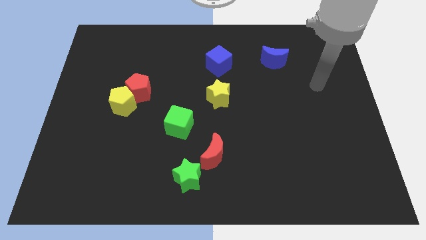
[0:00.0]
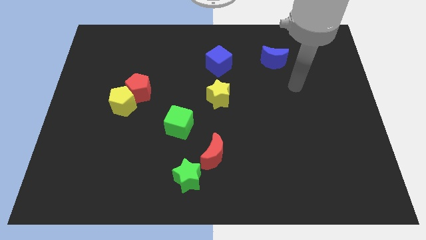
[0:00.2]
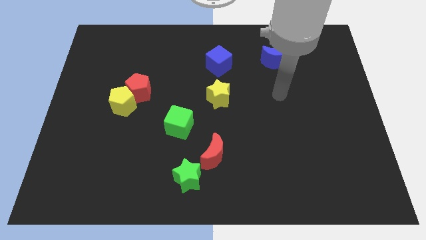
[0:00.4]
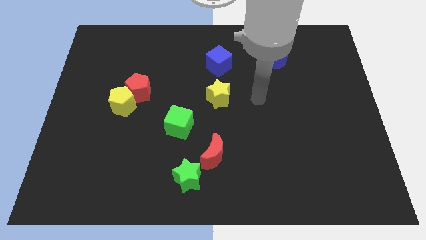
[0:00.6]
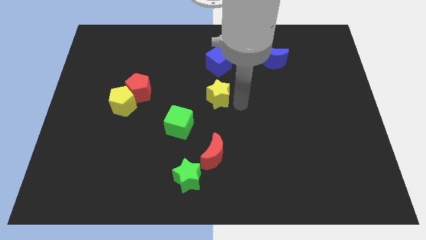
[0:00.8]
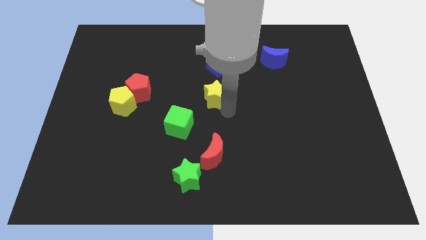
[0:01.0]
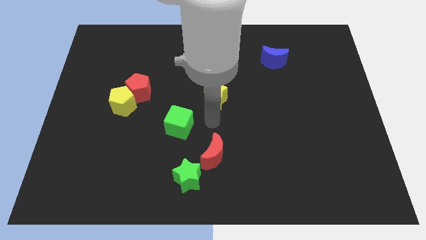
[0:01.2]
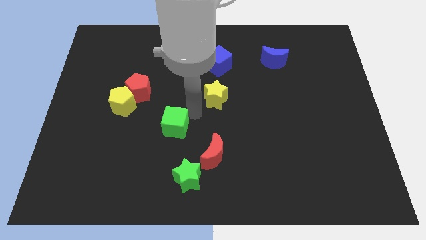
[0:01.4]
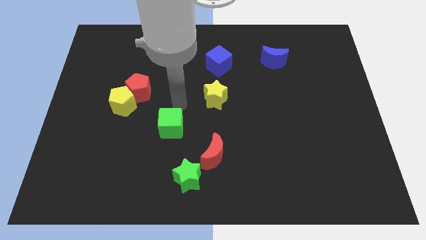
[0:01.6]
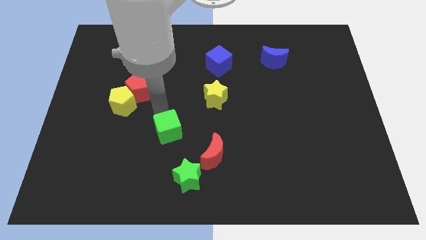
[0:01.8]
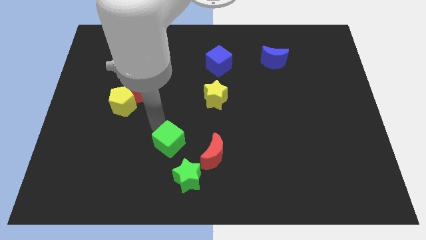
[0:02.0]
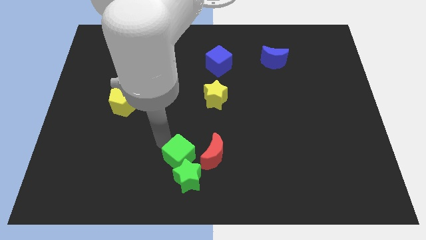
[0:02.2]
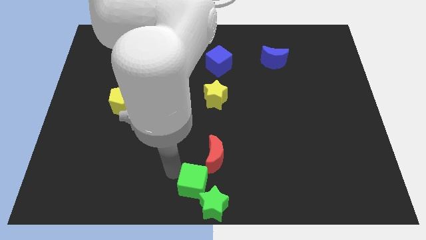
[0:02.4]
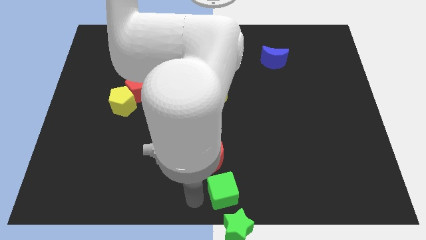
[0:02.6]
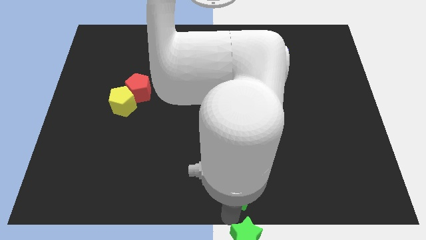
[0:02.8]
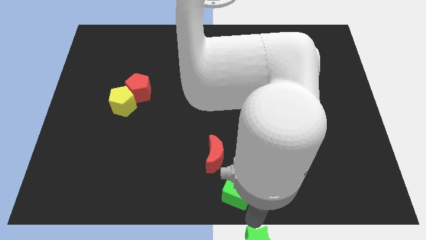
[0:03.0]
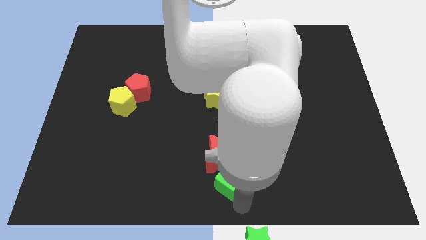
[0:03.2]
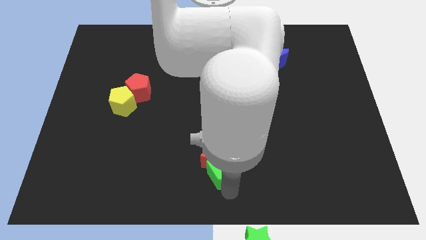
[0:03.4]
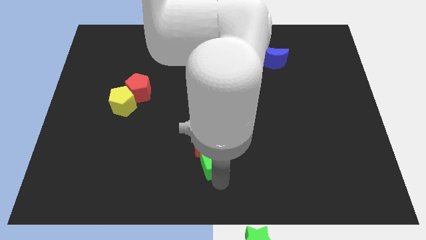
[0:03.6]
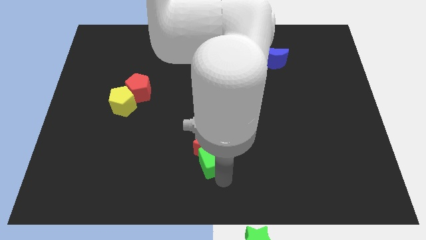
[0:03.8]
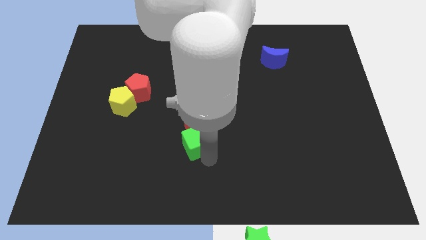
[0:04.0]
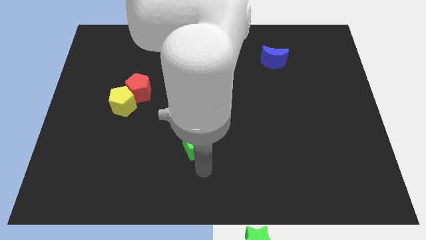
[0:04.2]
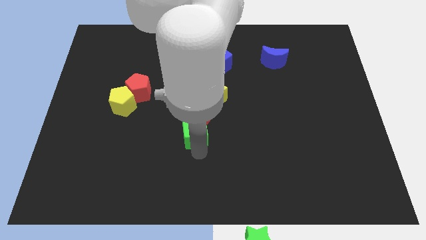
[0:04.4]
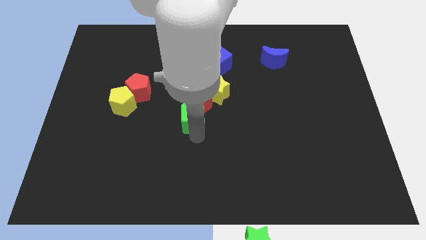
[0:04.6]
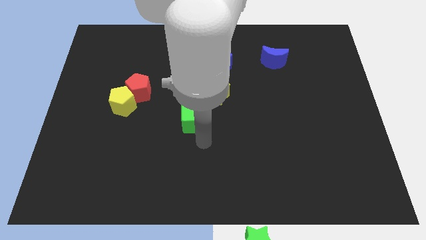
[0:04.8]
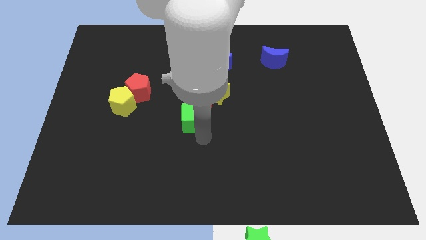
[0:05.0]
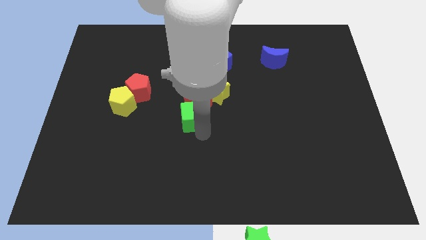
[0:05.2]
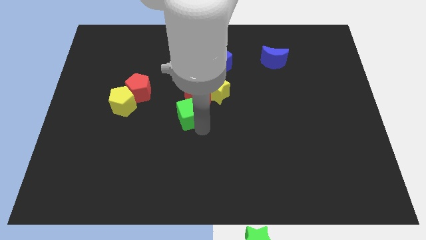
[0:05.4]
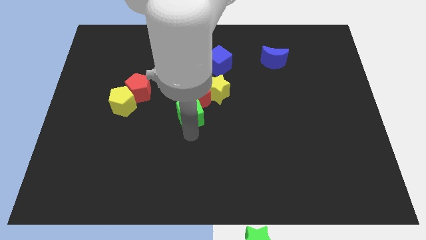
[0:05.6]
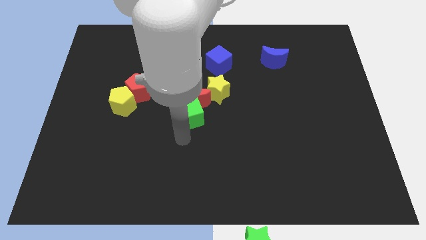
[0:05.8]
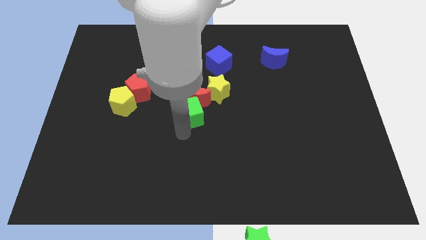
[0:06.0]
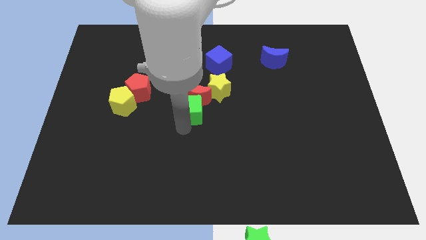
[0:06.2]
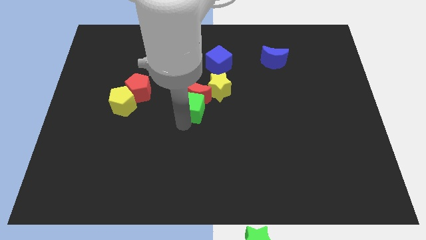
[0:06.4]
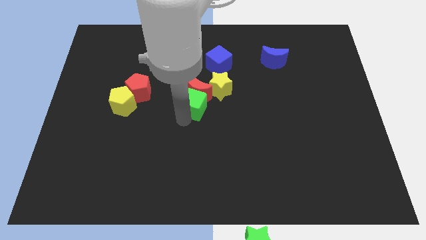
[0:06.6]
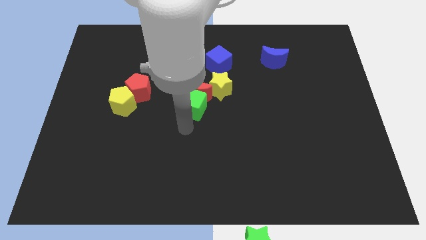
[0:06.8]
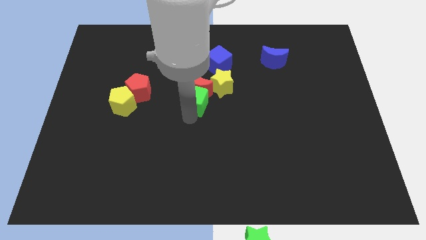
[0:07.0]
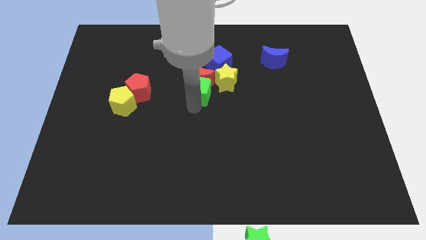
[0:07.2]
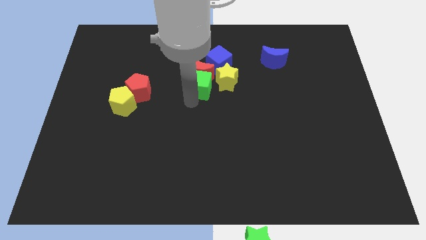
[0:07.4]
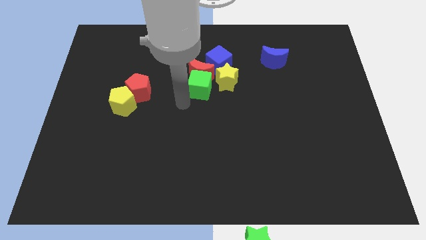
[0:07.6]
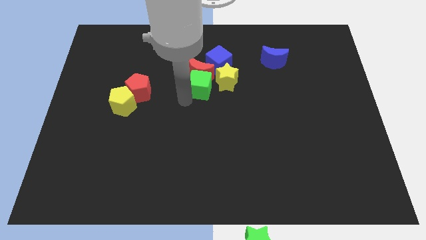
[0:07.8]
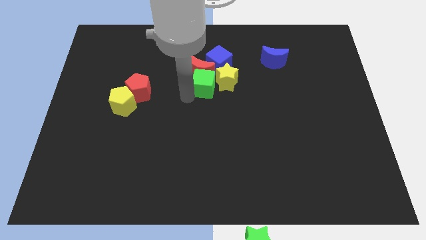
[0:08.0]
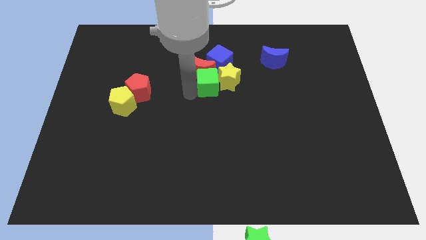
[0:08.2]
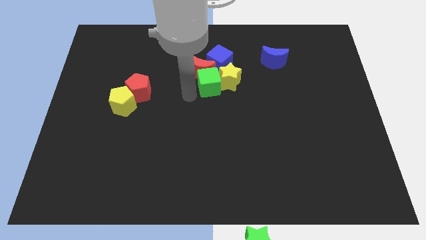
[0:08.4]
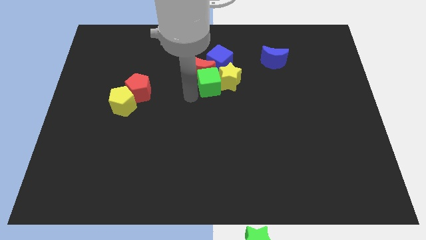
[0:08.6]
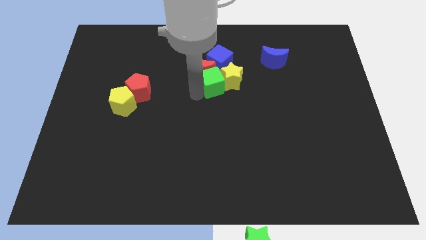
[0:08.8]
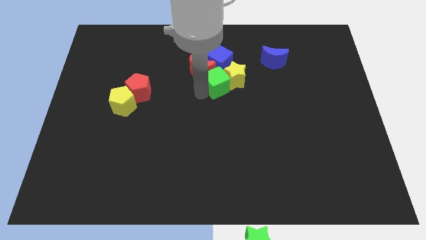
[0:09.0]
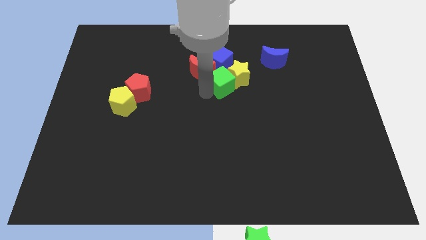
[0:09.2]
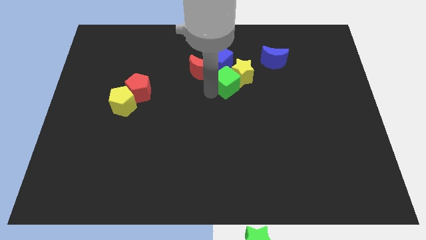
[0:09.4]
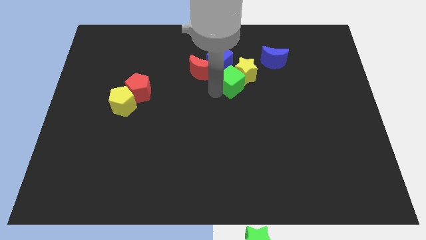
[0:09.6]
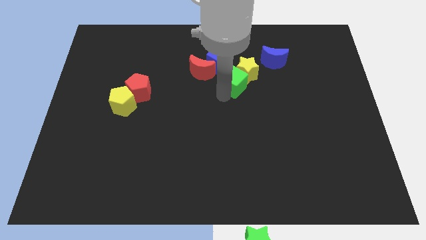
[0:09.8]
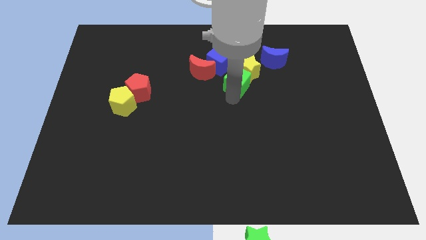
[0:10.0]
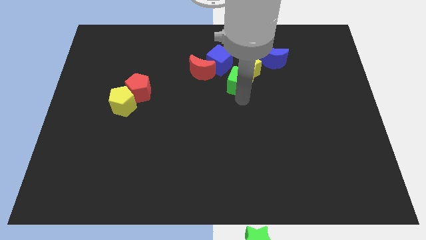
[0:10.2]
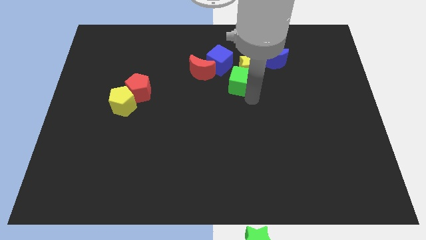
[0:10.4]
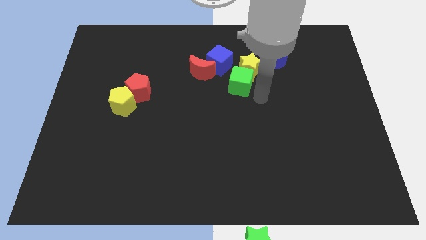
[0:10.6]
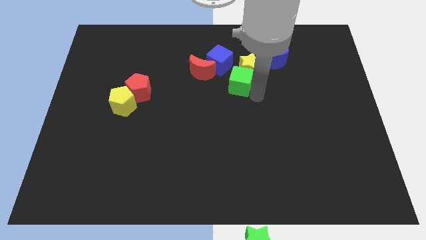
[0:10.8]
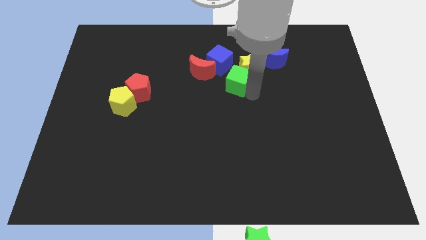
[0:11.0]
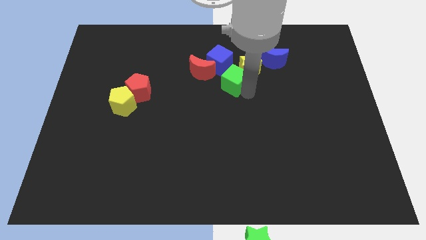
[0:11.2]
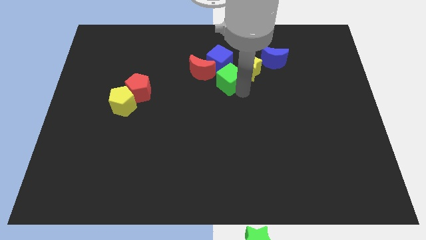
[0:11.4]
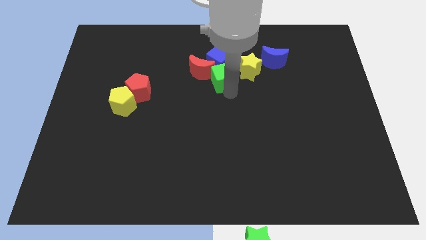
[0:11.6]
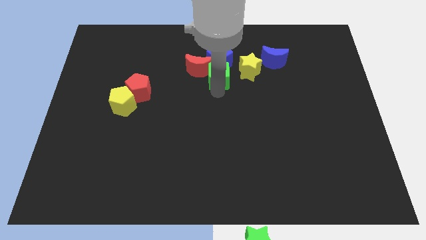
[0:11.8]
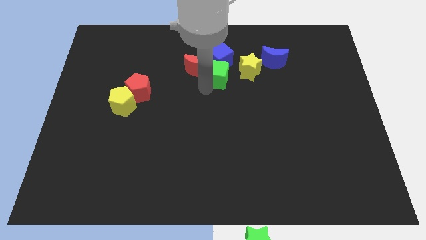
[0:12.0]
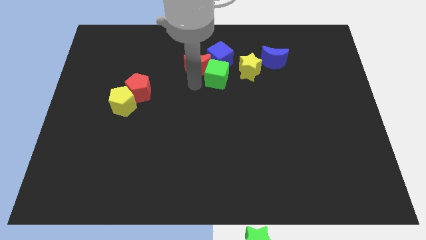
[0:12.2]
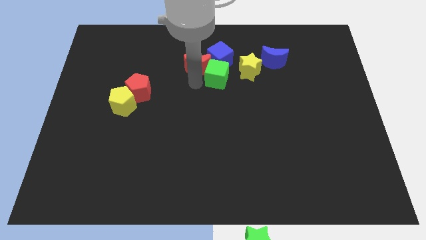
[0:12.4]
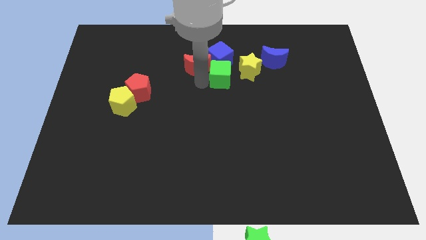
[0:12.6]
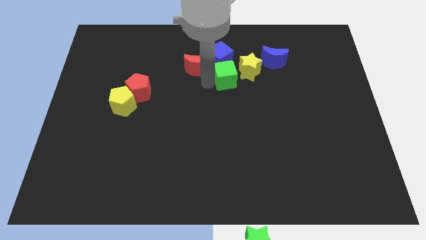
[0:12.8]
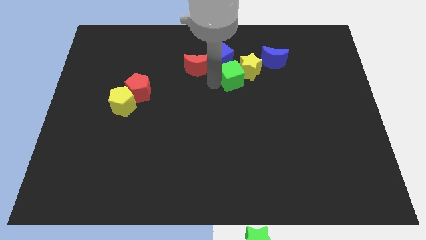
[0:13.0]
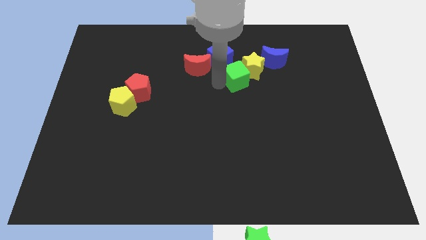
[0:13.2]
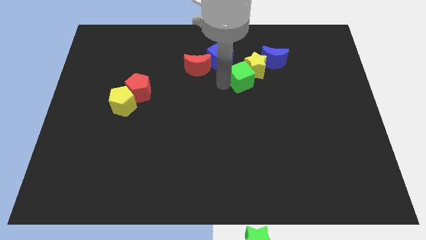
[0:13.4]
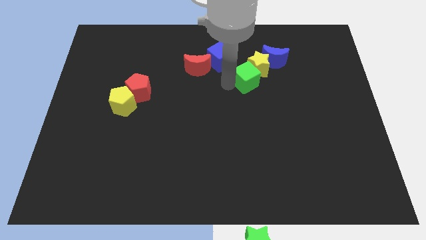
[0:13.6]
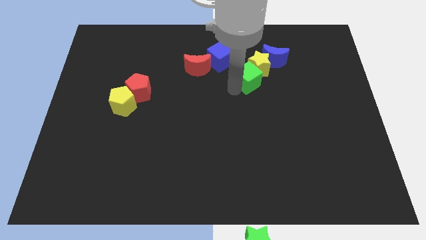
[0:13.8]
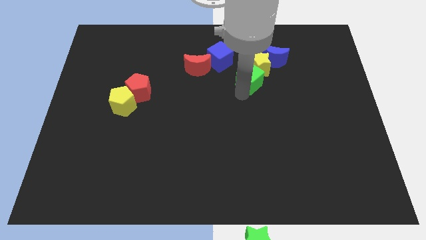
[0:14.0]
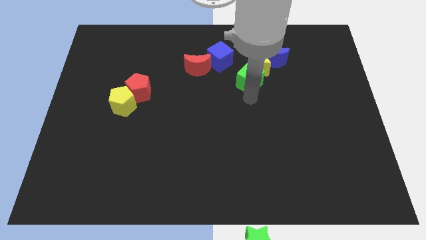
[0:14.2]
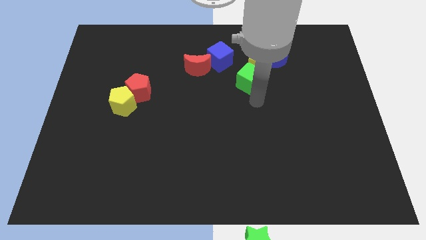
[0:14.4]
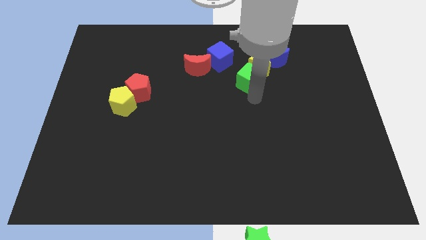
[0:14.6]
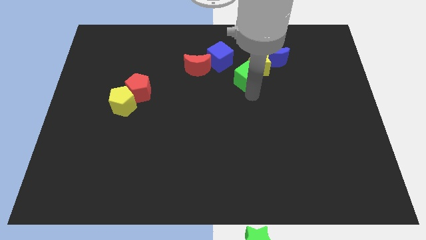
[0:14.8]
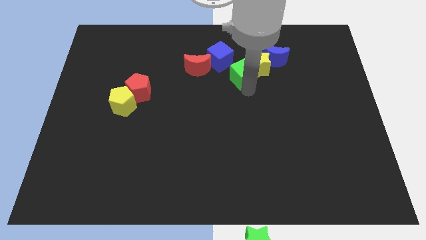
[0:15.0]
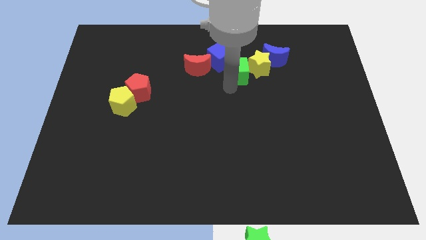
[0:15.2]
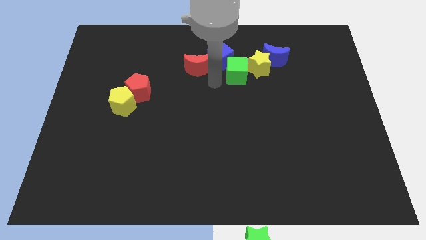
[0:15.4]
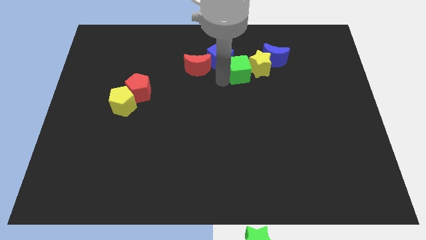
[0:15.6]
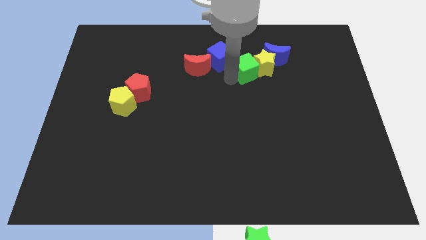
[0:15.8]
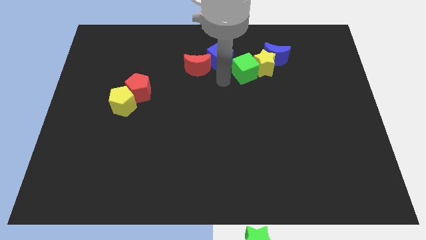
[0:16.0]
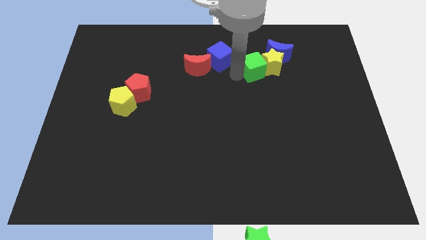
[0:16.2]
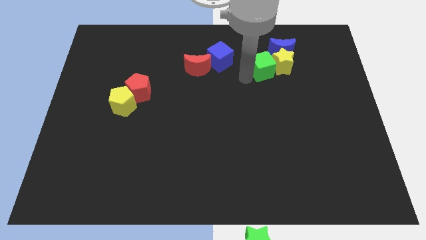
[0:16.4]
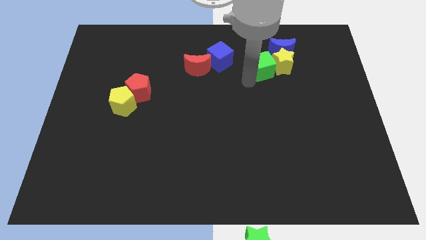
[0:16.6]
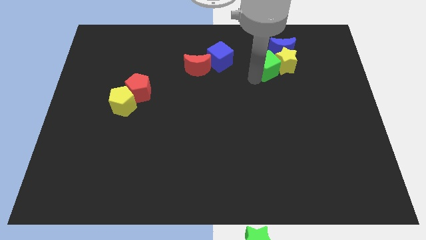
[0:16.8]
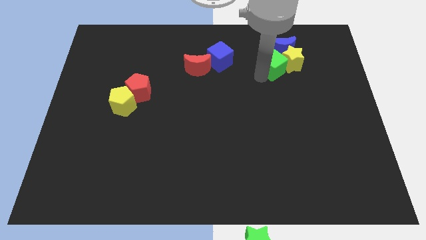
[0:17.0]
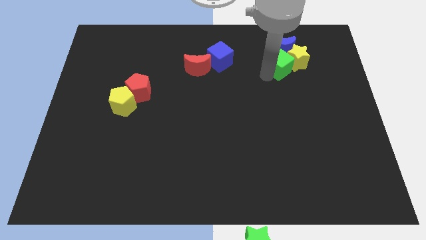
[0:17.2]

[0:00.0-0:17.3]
move the green cube to the blue moon
